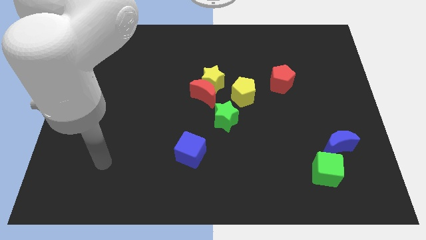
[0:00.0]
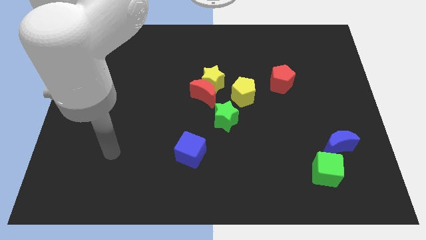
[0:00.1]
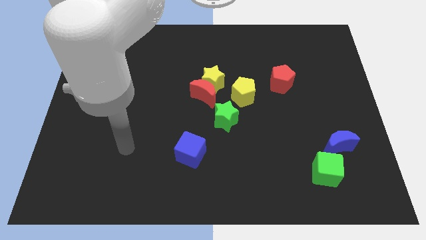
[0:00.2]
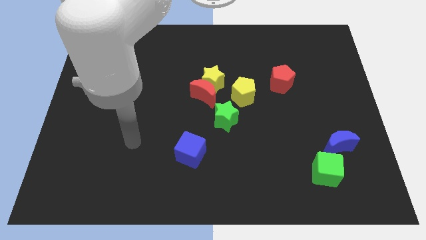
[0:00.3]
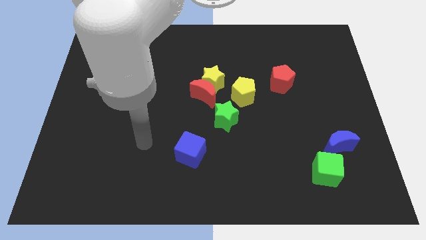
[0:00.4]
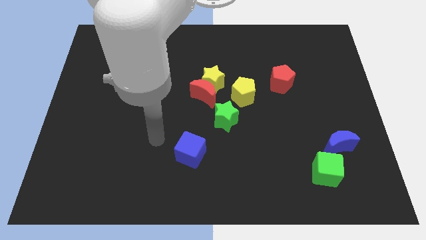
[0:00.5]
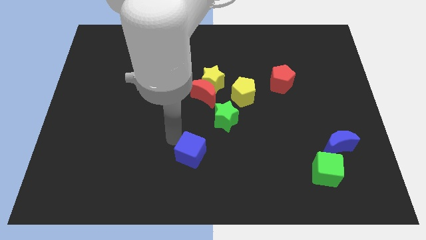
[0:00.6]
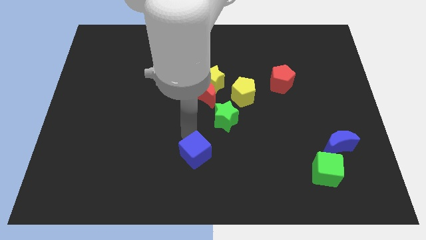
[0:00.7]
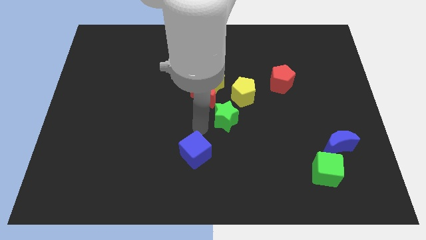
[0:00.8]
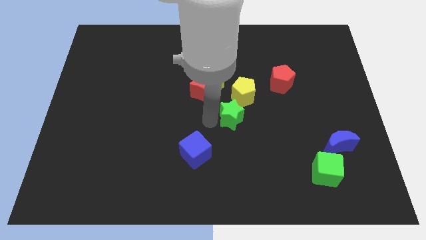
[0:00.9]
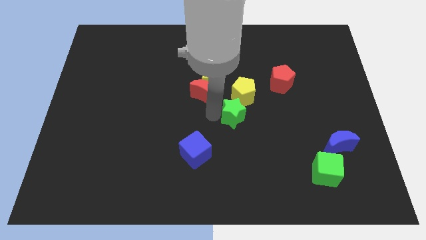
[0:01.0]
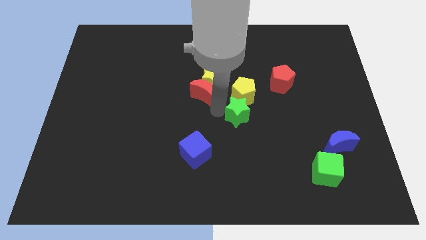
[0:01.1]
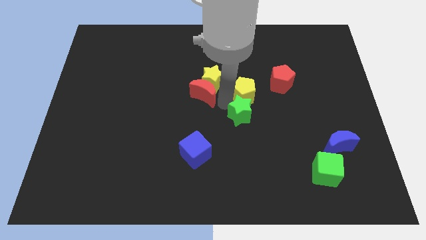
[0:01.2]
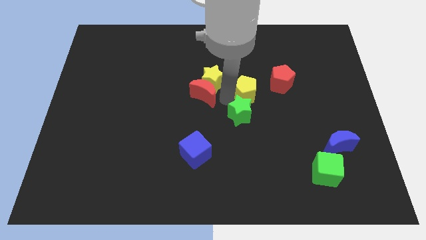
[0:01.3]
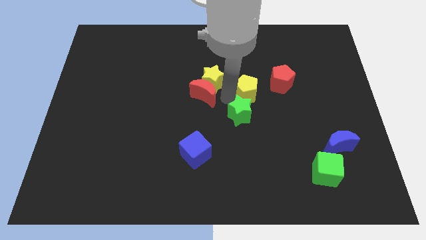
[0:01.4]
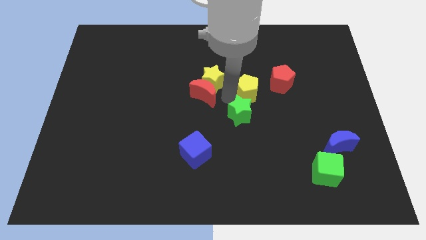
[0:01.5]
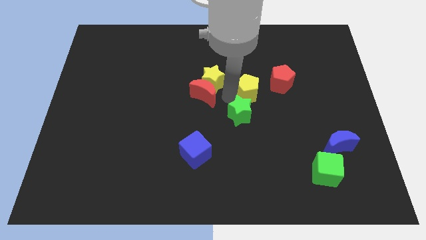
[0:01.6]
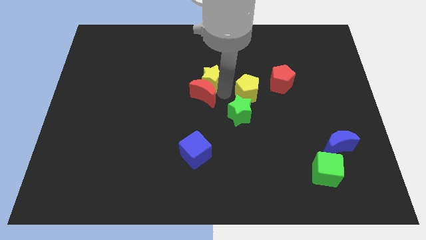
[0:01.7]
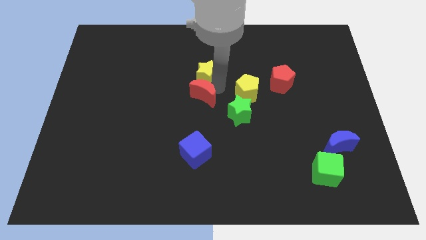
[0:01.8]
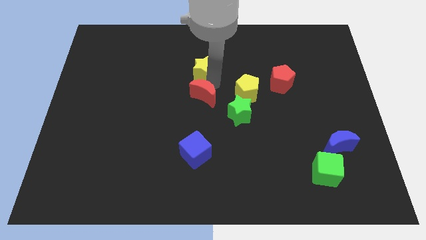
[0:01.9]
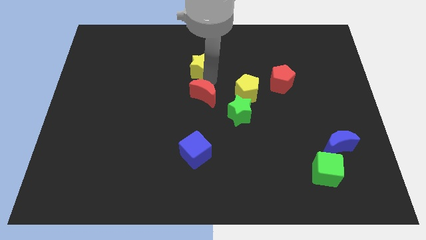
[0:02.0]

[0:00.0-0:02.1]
move the yellow star away from the red moon and yellow pentagon

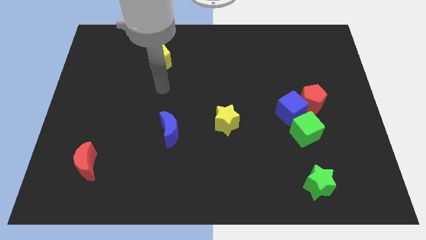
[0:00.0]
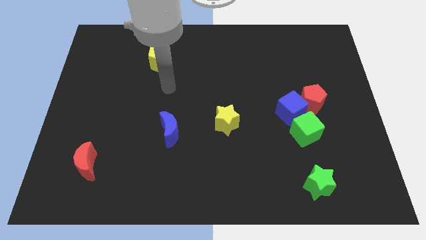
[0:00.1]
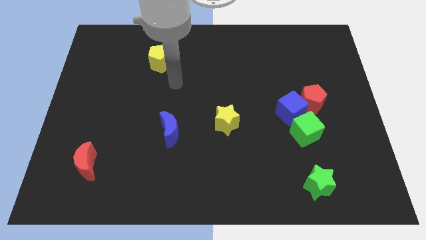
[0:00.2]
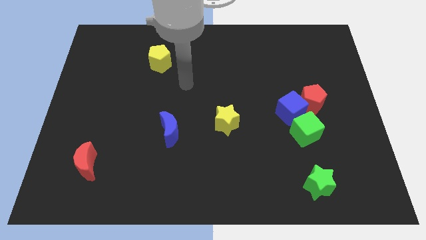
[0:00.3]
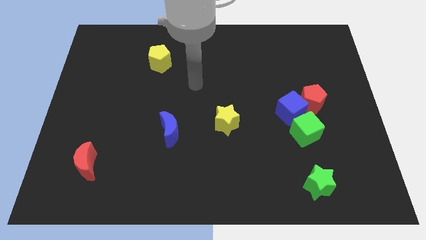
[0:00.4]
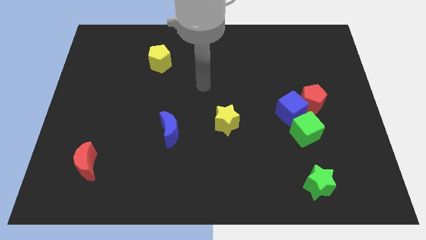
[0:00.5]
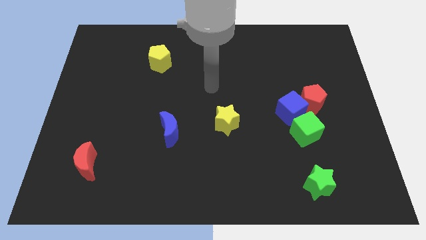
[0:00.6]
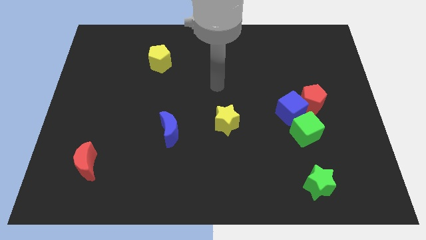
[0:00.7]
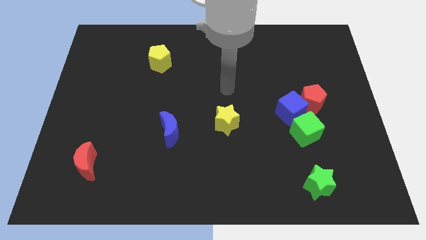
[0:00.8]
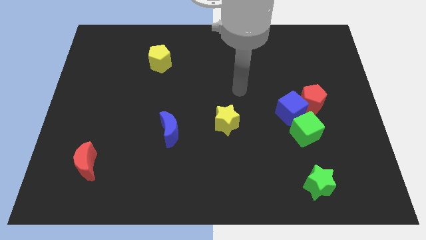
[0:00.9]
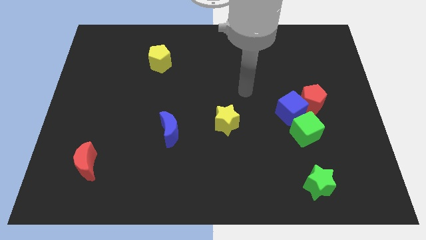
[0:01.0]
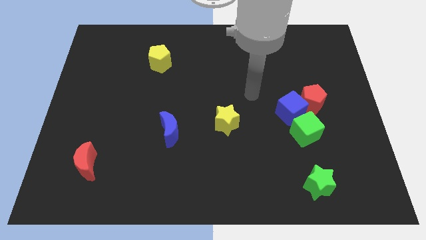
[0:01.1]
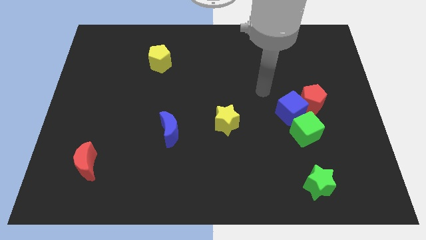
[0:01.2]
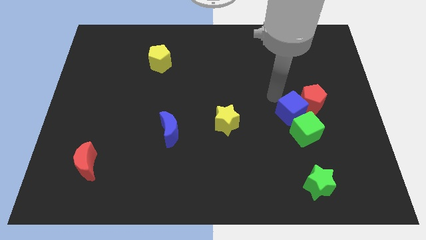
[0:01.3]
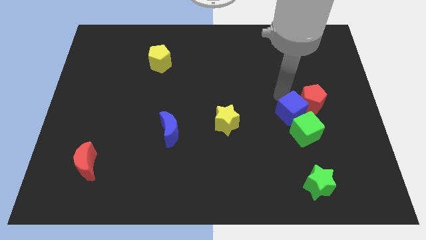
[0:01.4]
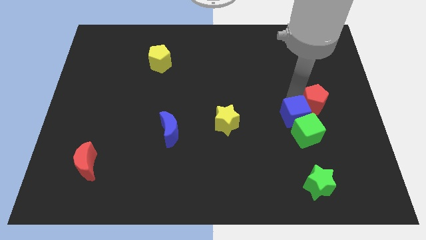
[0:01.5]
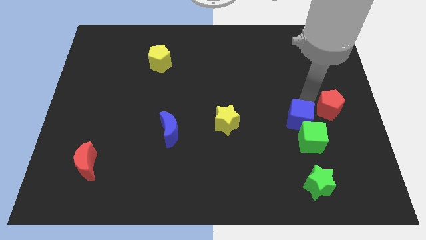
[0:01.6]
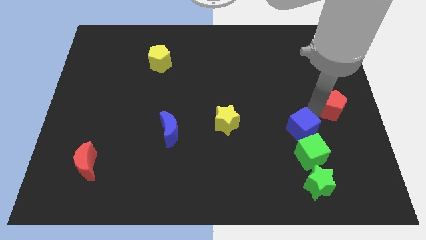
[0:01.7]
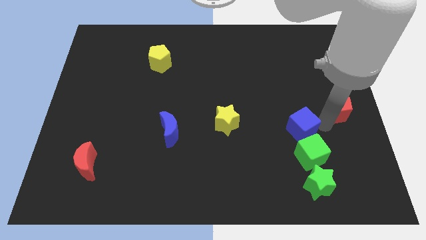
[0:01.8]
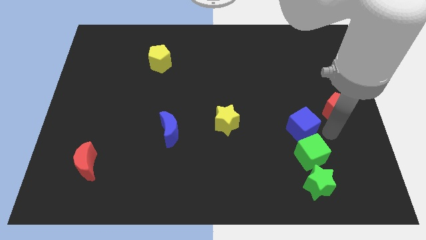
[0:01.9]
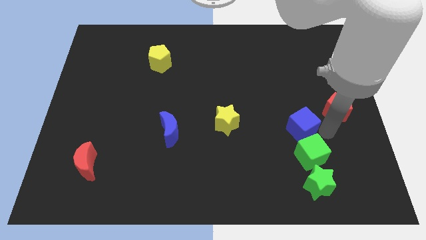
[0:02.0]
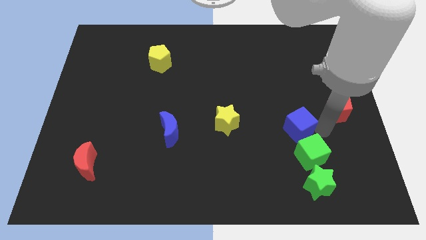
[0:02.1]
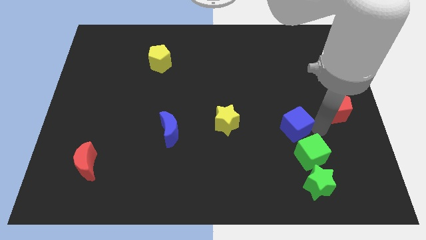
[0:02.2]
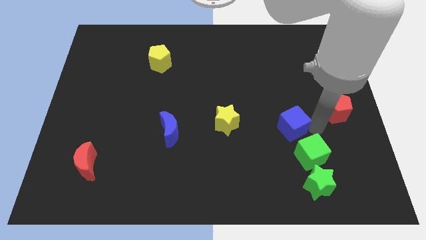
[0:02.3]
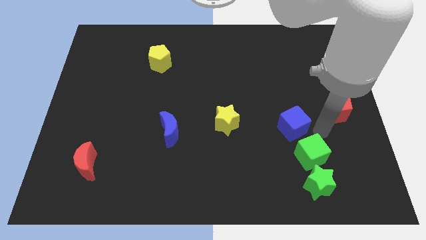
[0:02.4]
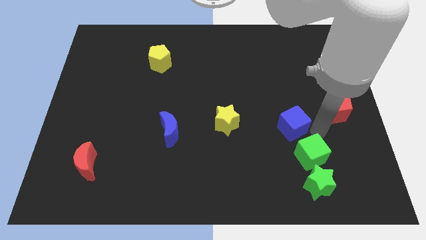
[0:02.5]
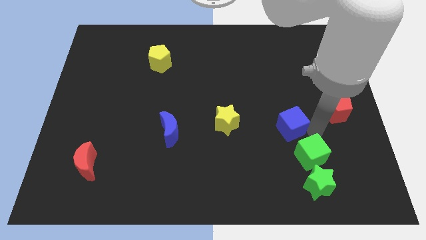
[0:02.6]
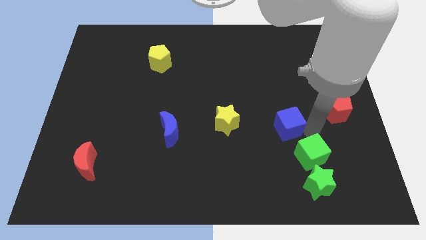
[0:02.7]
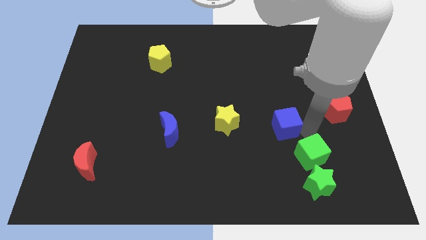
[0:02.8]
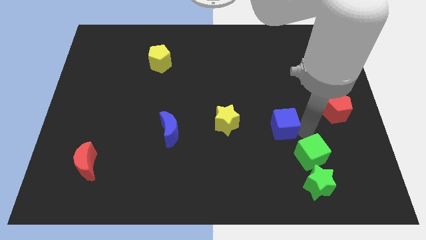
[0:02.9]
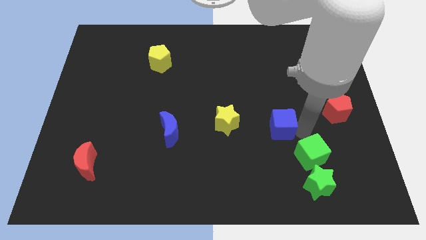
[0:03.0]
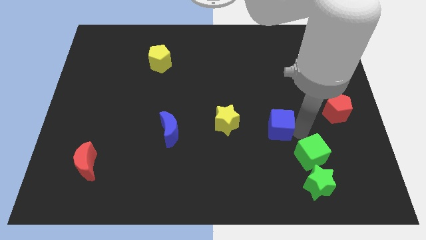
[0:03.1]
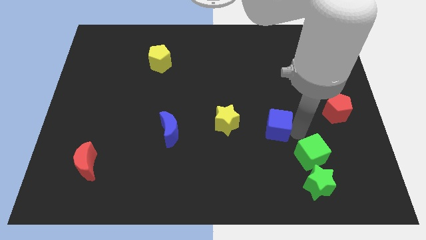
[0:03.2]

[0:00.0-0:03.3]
move the blue cube away from the red pentagon and green cube

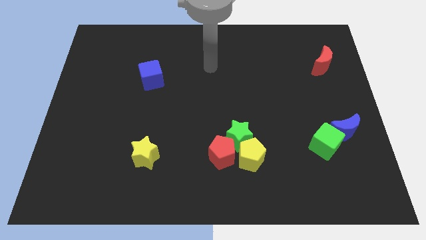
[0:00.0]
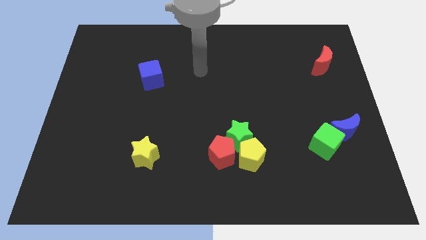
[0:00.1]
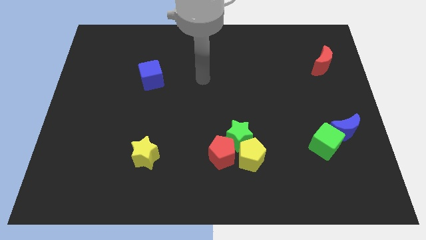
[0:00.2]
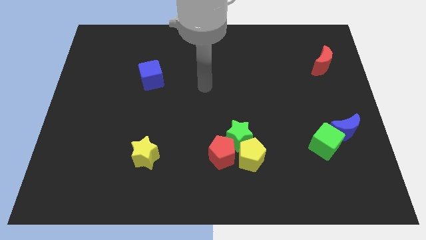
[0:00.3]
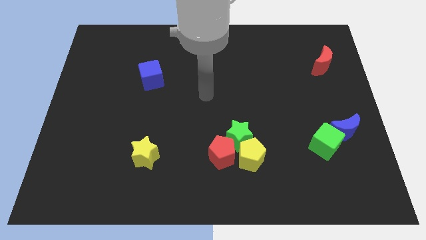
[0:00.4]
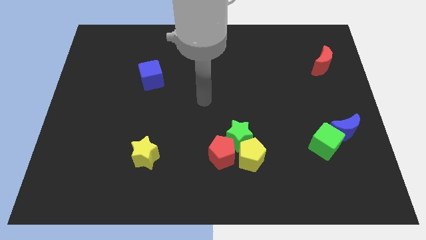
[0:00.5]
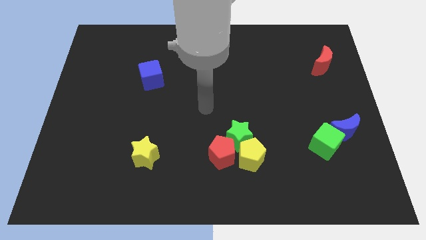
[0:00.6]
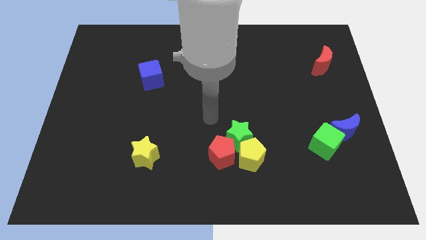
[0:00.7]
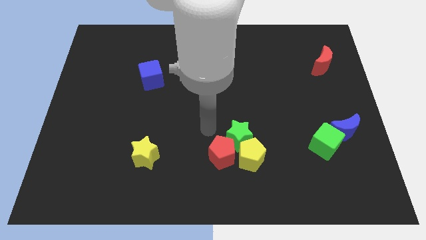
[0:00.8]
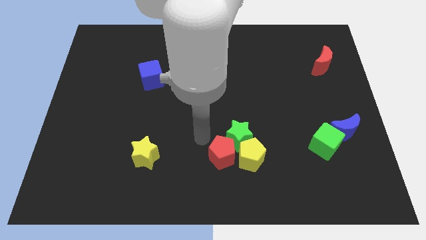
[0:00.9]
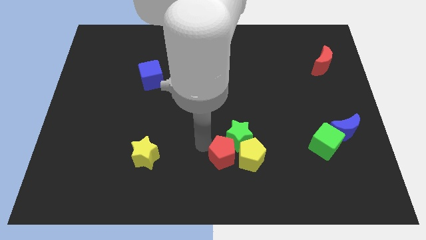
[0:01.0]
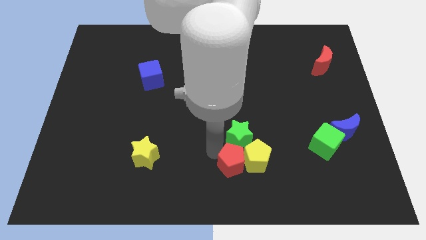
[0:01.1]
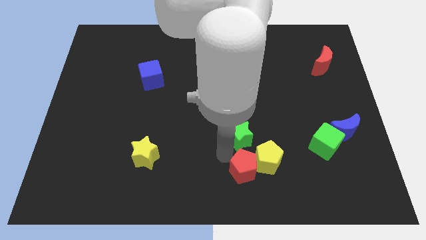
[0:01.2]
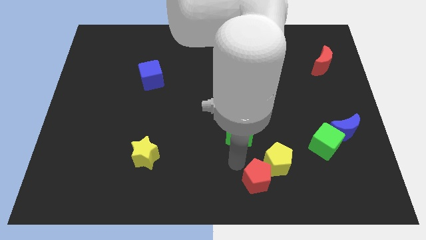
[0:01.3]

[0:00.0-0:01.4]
move the green star away from the yellow pentagon and red pentagon

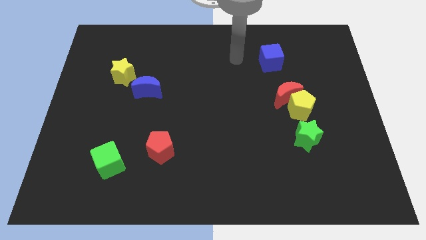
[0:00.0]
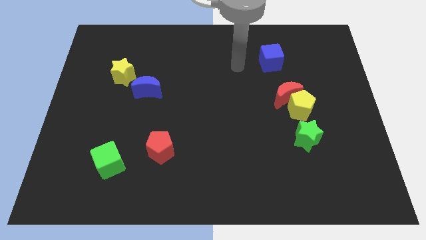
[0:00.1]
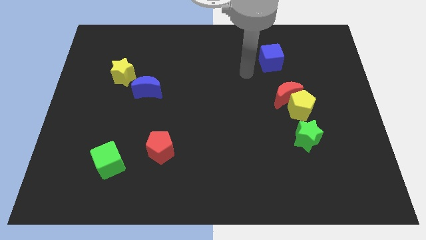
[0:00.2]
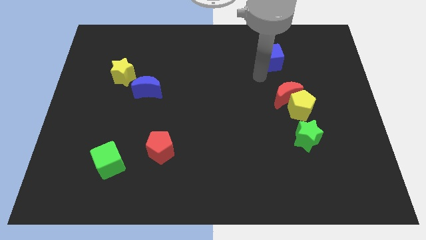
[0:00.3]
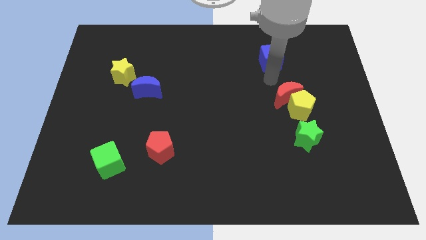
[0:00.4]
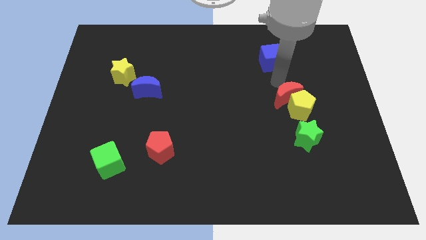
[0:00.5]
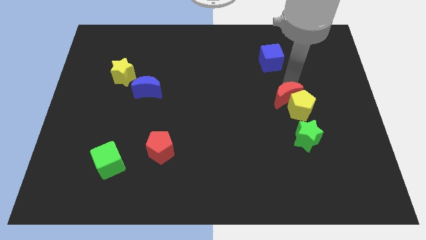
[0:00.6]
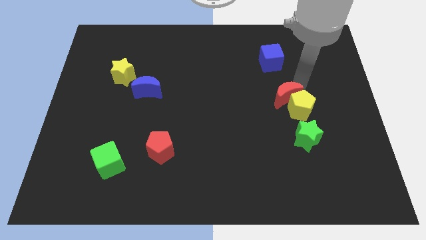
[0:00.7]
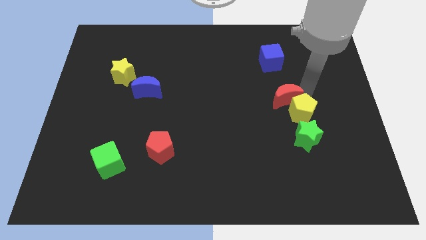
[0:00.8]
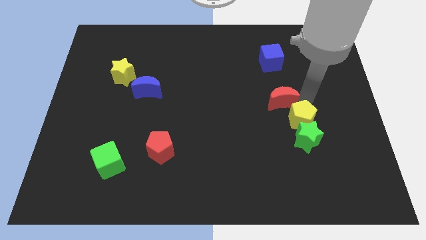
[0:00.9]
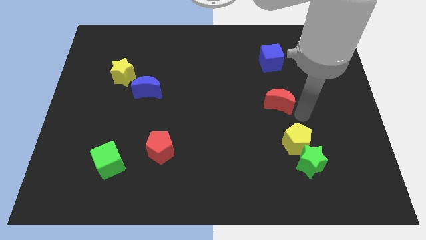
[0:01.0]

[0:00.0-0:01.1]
pull the red moon apart from the yellow pentagon

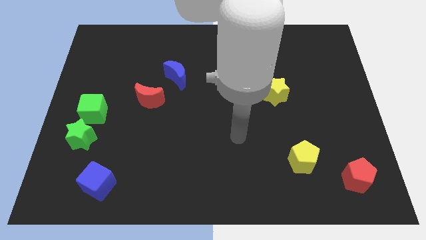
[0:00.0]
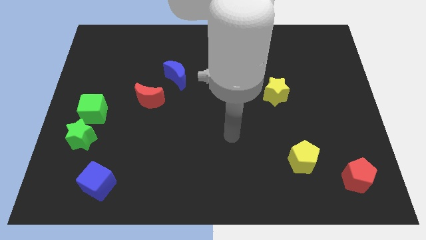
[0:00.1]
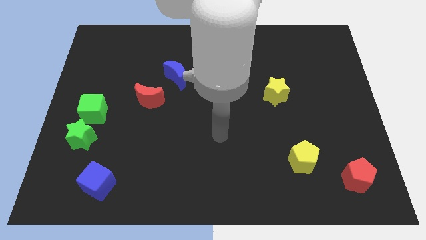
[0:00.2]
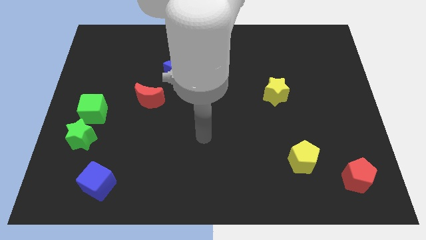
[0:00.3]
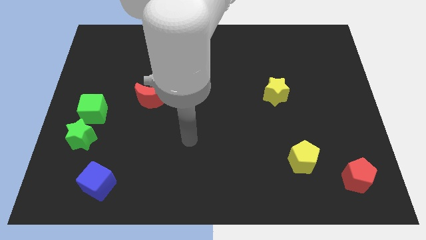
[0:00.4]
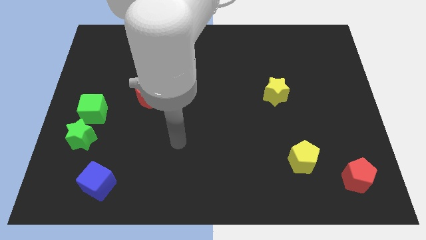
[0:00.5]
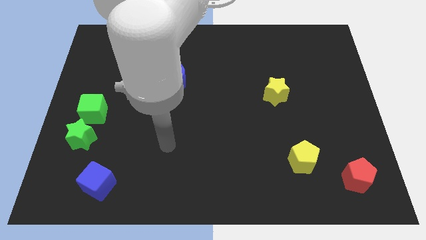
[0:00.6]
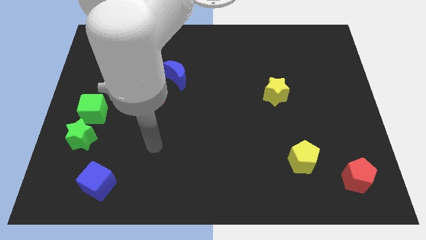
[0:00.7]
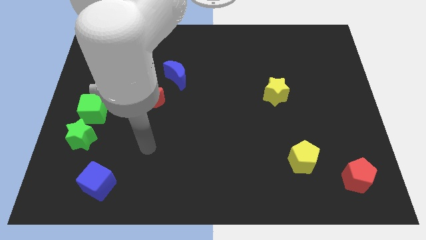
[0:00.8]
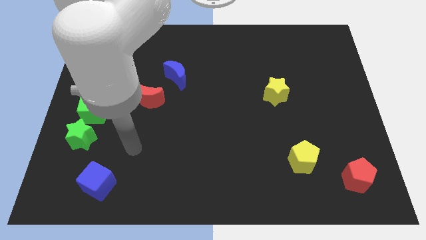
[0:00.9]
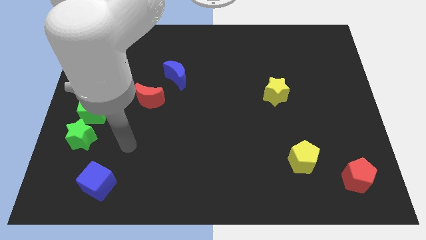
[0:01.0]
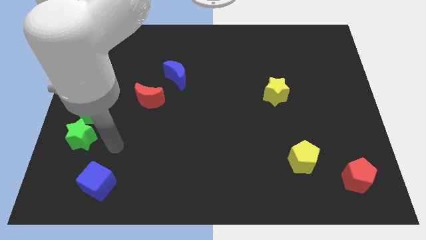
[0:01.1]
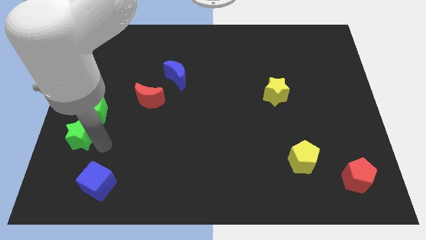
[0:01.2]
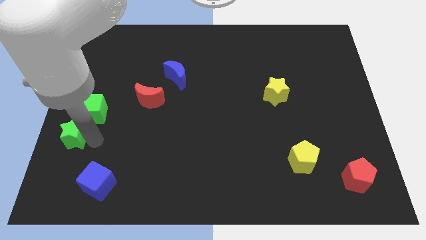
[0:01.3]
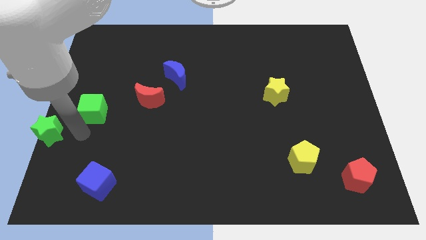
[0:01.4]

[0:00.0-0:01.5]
pull the green cube apart from the green star
